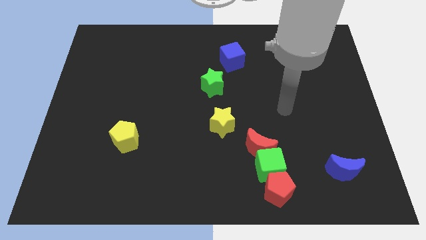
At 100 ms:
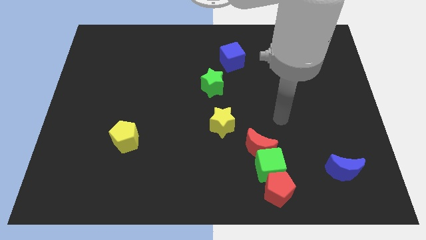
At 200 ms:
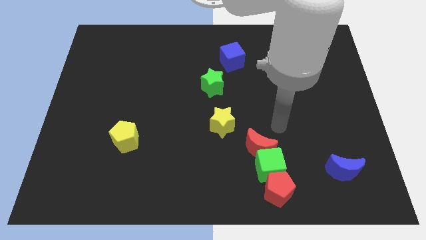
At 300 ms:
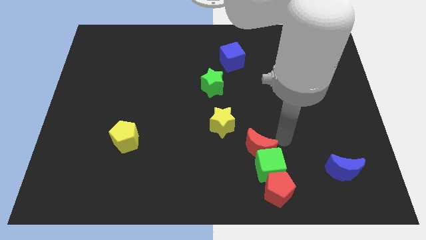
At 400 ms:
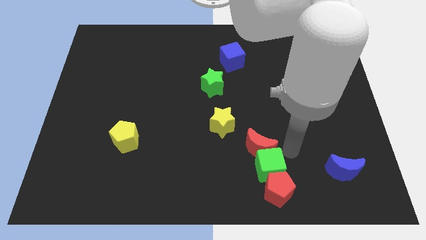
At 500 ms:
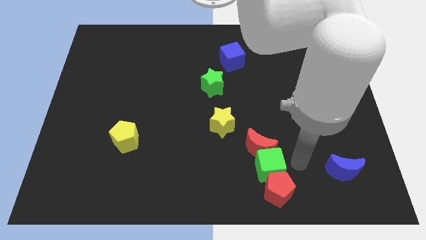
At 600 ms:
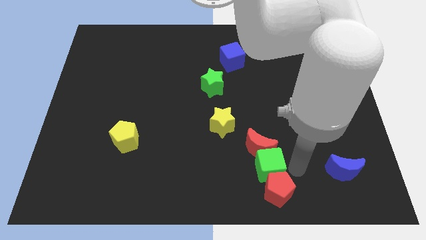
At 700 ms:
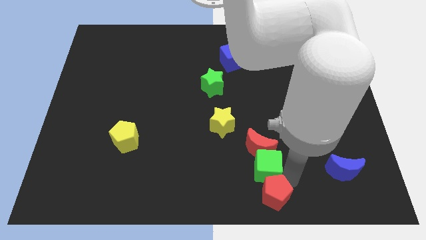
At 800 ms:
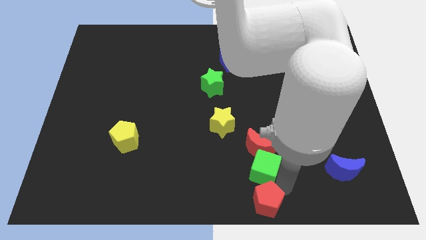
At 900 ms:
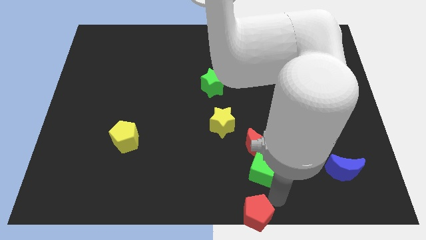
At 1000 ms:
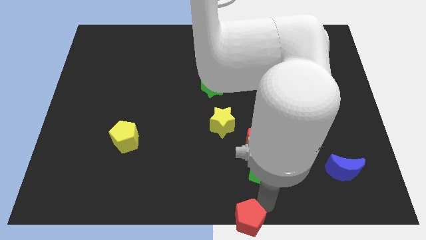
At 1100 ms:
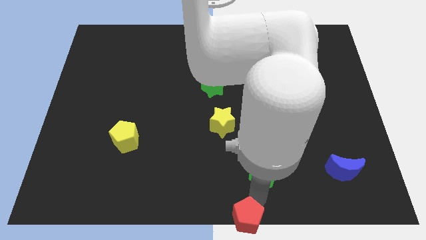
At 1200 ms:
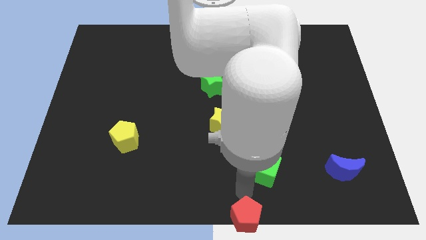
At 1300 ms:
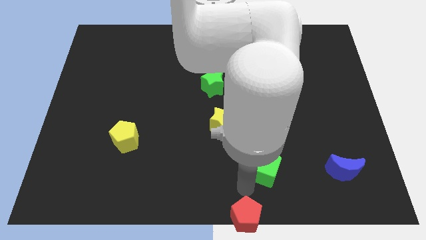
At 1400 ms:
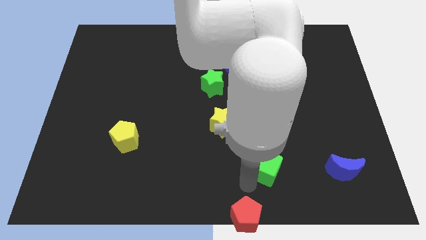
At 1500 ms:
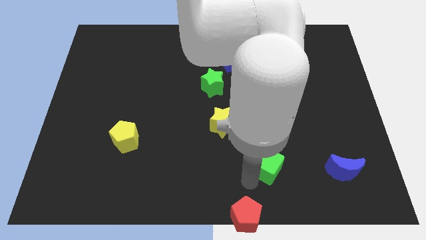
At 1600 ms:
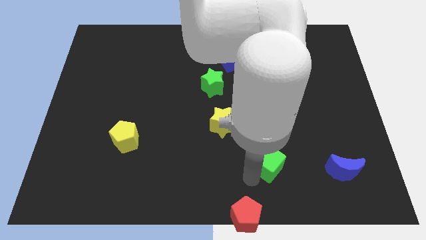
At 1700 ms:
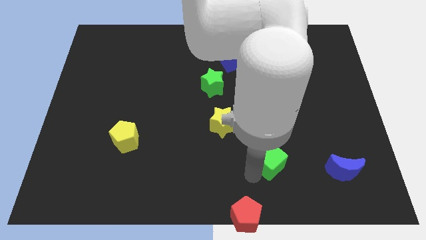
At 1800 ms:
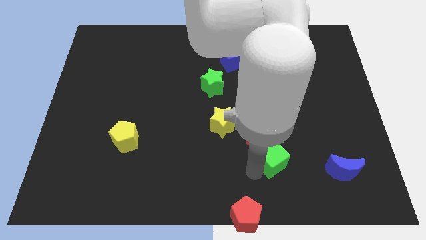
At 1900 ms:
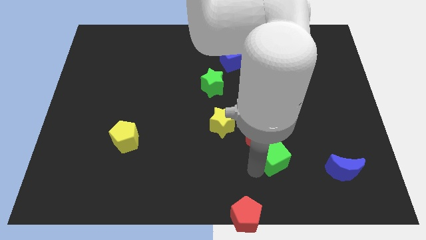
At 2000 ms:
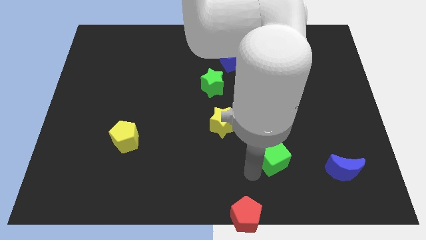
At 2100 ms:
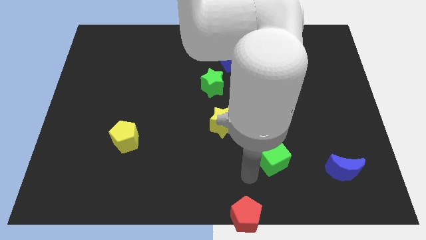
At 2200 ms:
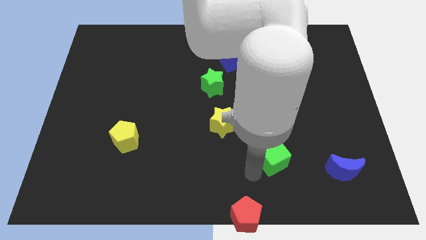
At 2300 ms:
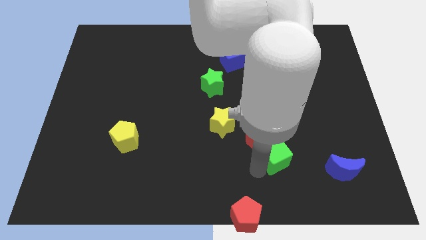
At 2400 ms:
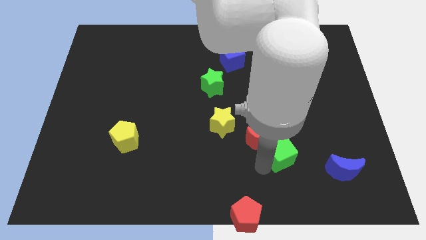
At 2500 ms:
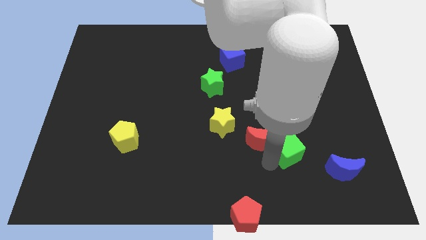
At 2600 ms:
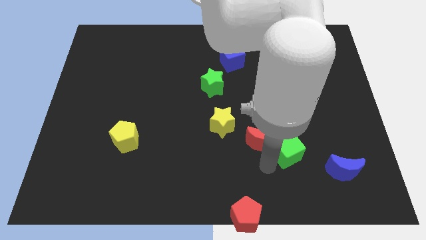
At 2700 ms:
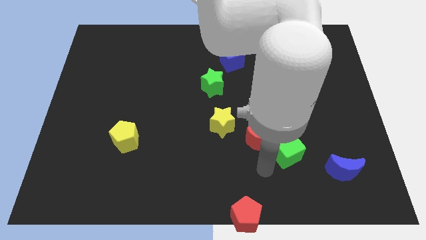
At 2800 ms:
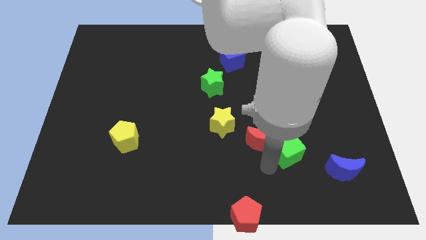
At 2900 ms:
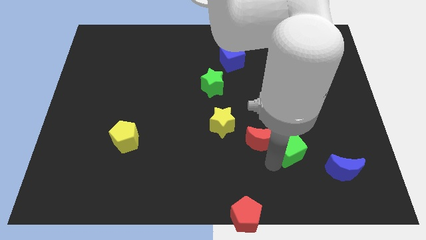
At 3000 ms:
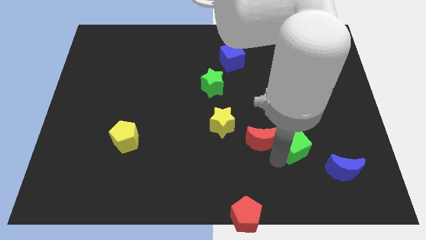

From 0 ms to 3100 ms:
separate the green cube from the red moon and red pentagon

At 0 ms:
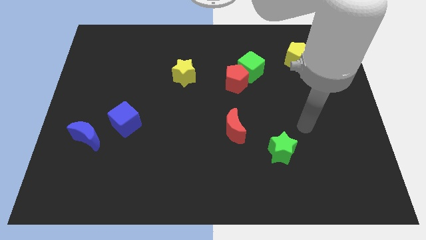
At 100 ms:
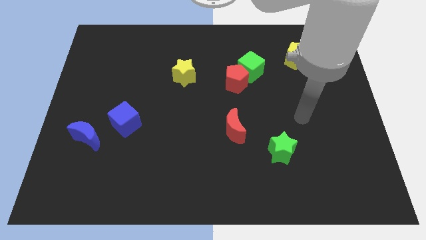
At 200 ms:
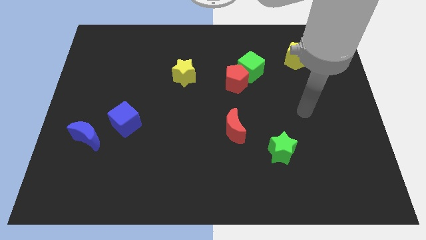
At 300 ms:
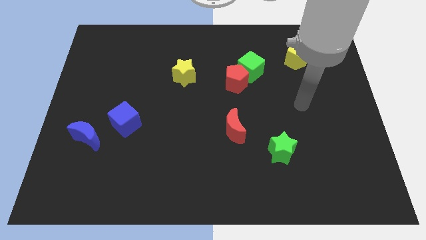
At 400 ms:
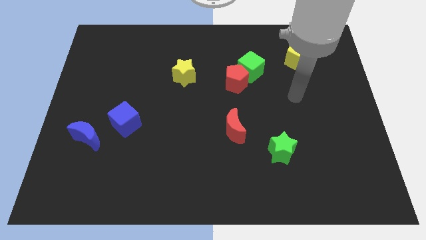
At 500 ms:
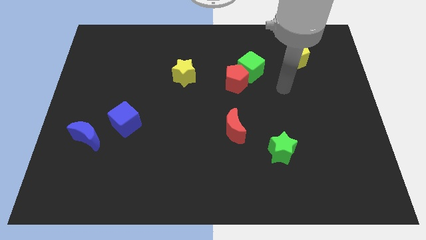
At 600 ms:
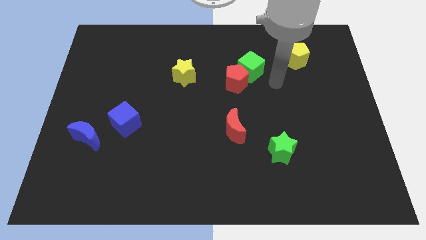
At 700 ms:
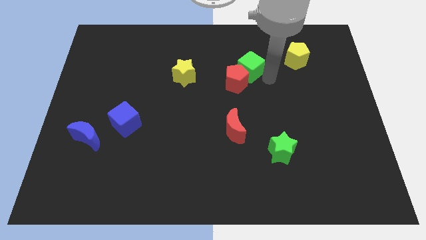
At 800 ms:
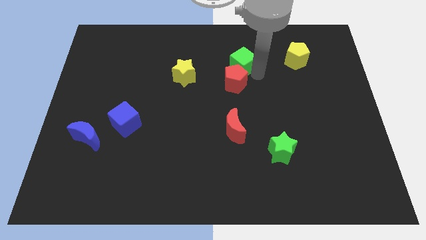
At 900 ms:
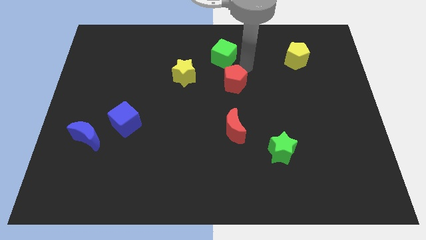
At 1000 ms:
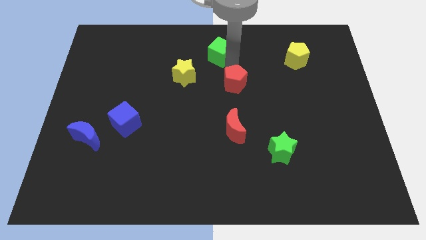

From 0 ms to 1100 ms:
pull the red pentagon apart from the green cube

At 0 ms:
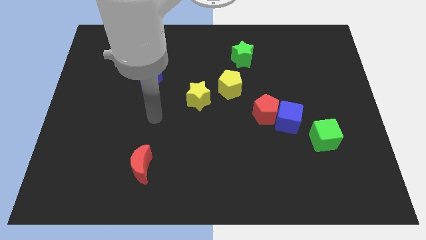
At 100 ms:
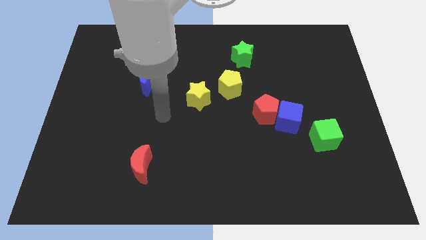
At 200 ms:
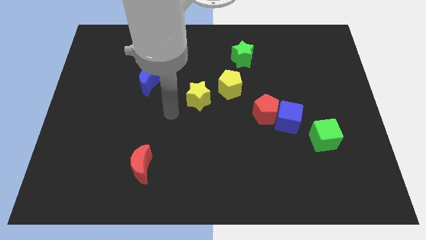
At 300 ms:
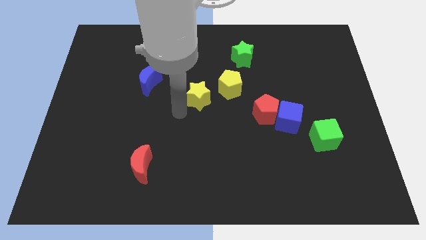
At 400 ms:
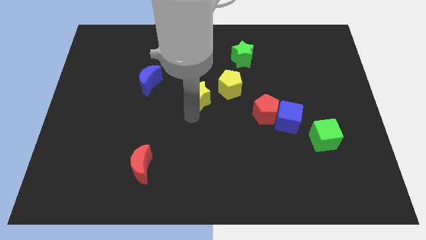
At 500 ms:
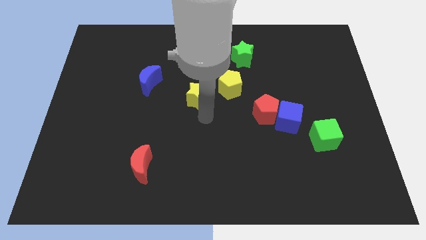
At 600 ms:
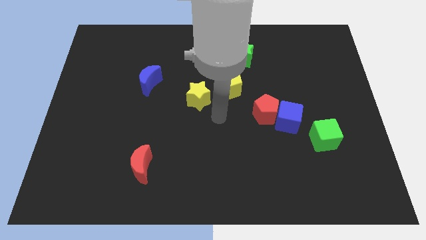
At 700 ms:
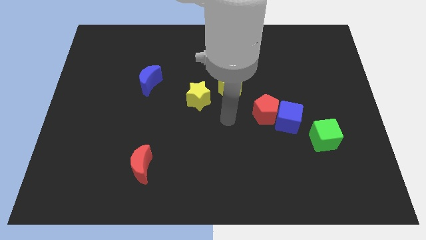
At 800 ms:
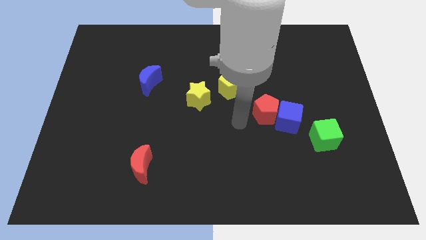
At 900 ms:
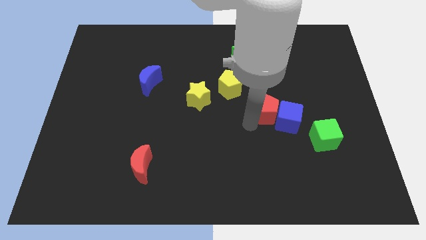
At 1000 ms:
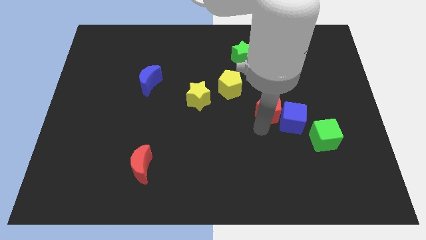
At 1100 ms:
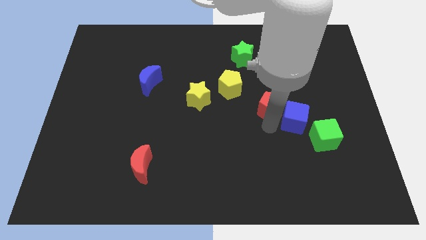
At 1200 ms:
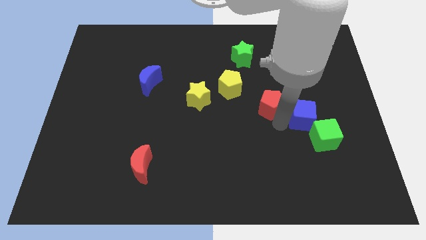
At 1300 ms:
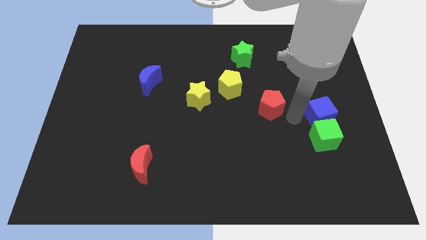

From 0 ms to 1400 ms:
move the red pentagon away from the blue cube

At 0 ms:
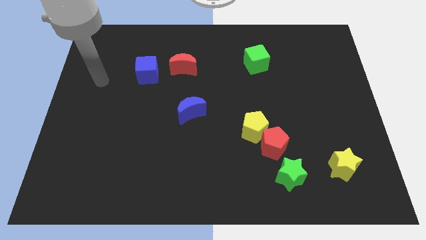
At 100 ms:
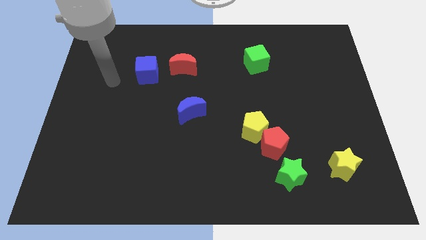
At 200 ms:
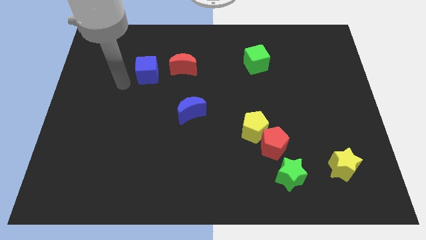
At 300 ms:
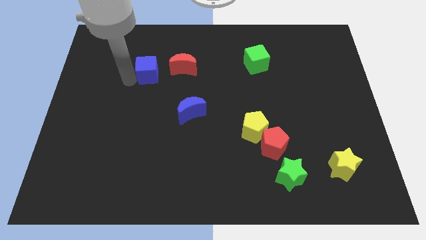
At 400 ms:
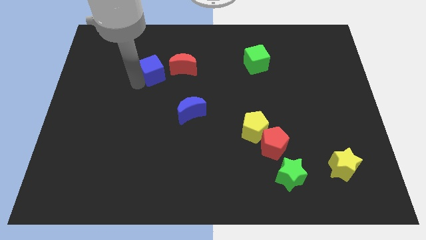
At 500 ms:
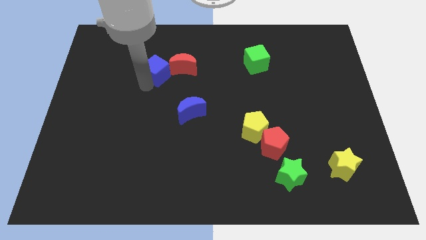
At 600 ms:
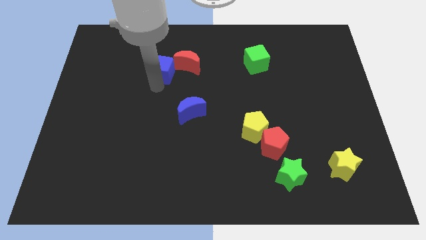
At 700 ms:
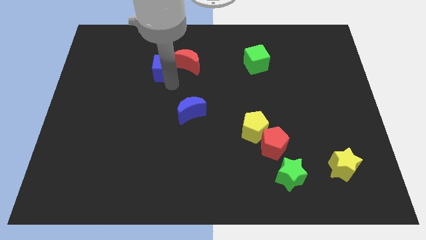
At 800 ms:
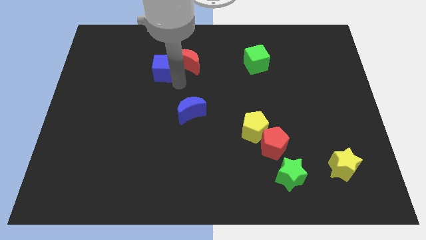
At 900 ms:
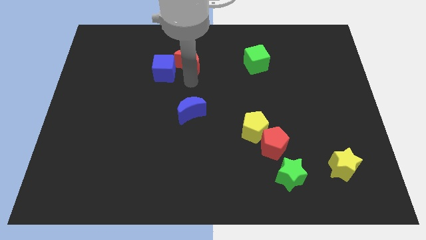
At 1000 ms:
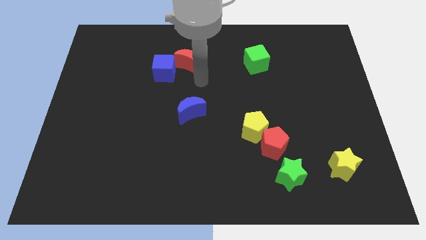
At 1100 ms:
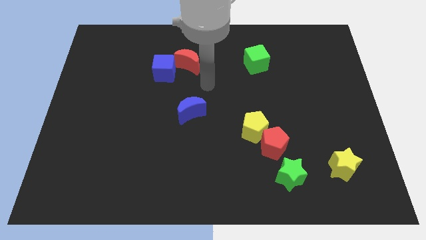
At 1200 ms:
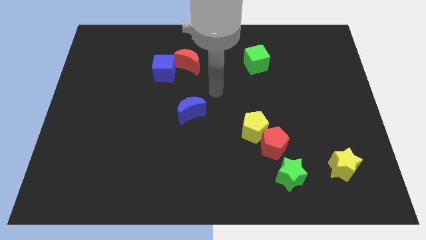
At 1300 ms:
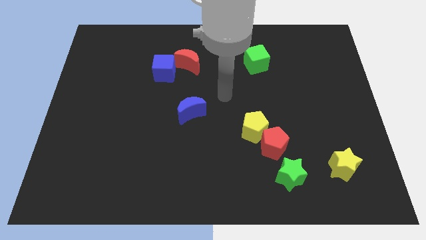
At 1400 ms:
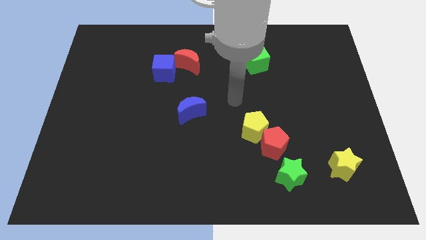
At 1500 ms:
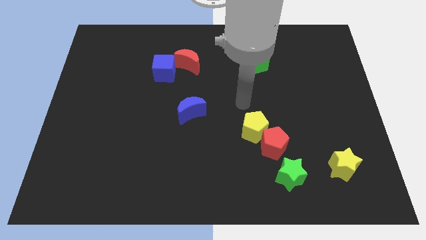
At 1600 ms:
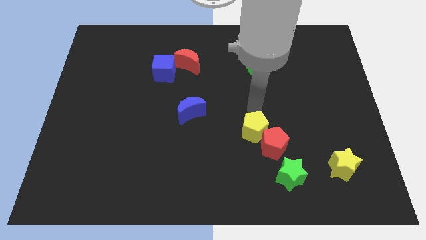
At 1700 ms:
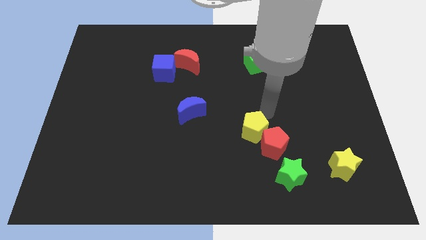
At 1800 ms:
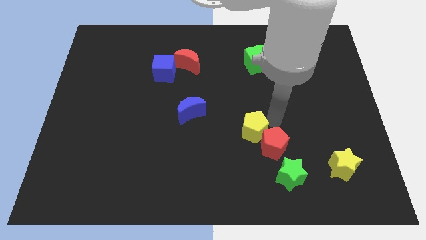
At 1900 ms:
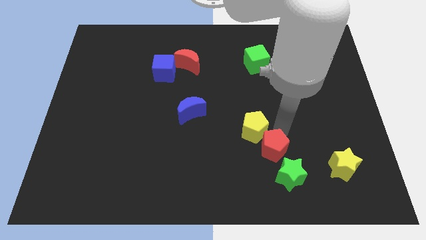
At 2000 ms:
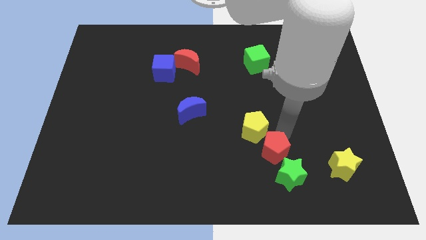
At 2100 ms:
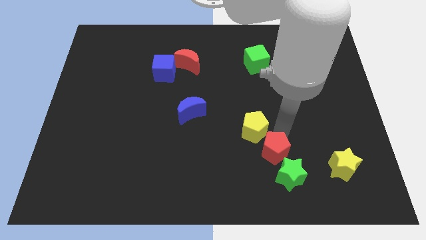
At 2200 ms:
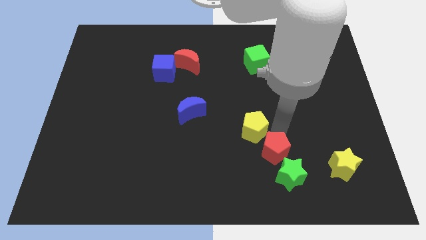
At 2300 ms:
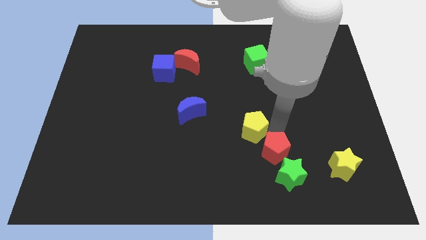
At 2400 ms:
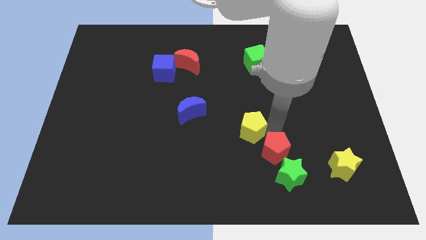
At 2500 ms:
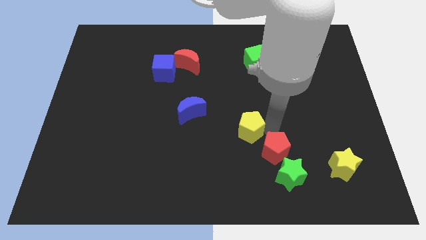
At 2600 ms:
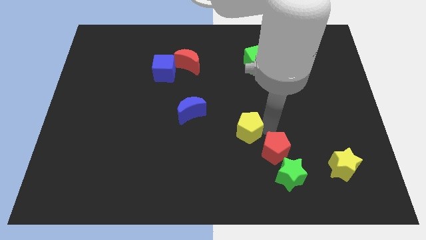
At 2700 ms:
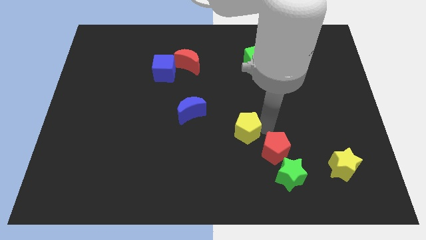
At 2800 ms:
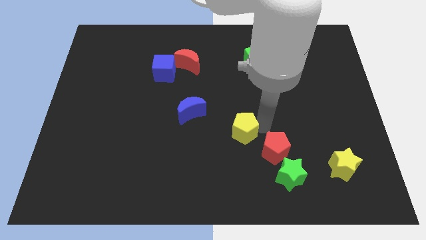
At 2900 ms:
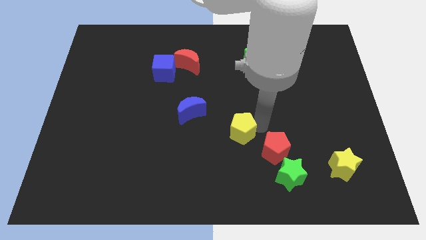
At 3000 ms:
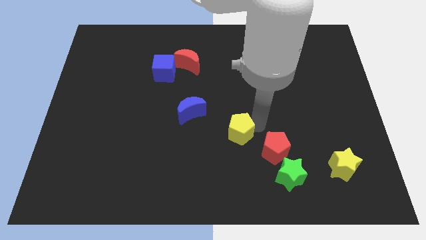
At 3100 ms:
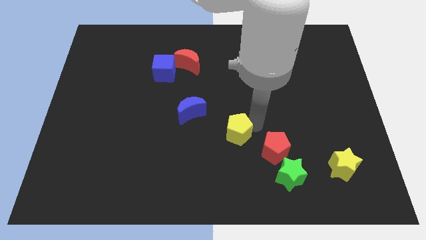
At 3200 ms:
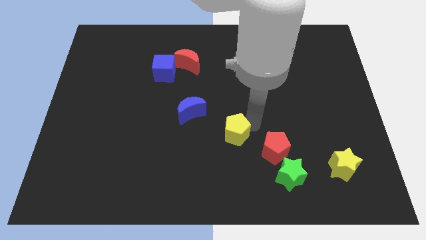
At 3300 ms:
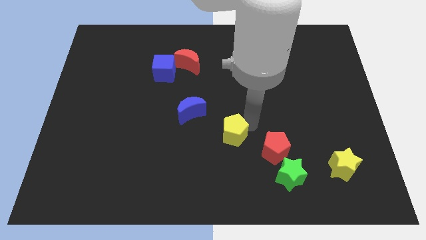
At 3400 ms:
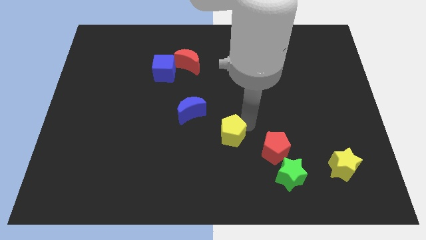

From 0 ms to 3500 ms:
pull the yellow pentagon apart from the red pentagon

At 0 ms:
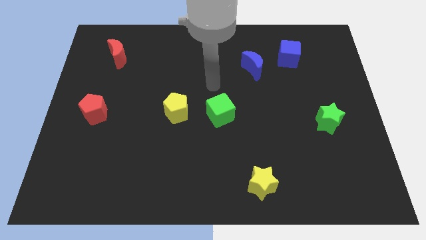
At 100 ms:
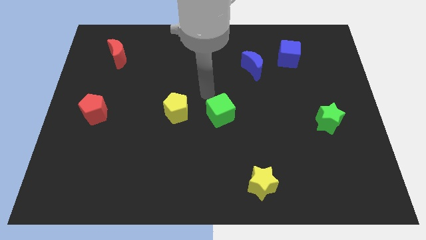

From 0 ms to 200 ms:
separate the green cube from the yellow pentagon
